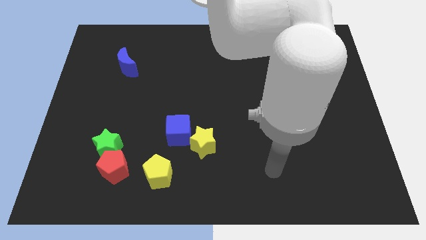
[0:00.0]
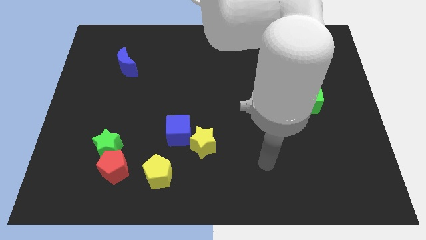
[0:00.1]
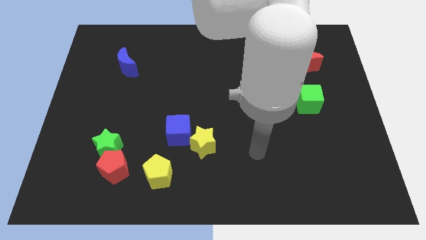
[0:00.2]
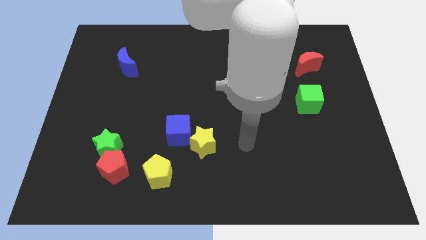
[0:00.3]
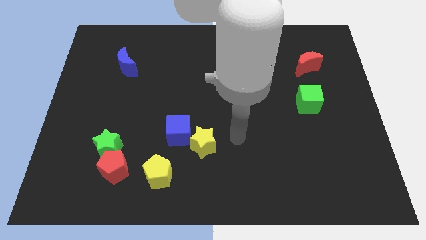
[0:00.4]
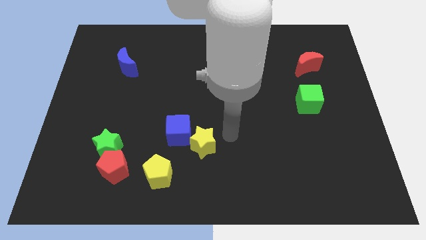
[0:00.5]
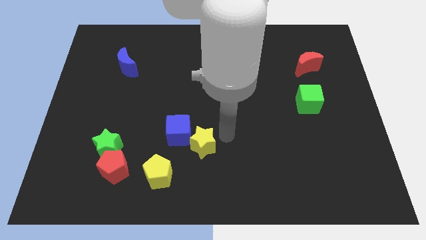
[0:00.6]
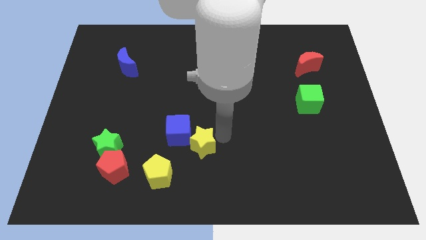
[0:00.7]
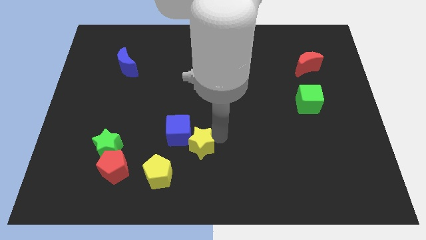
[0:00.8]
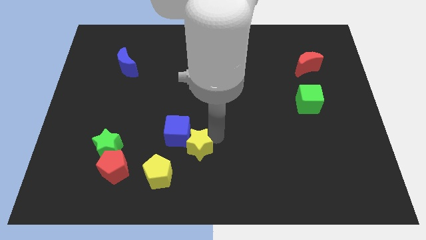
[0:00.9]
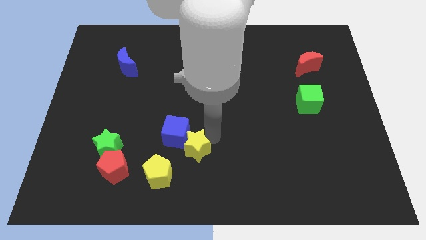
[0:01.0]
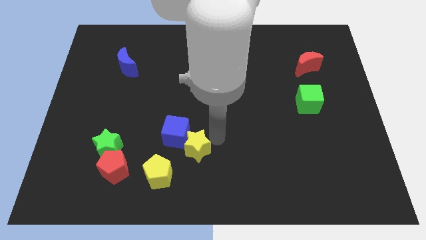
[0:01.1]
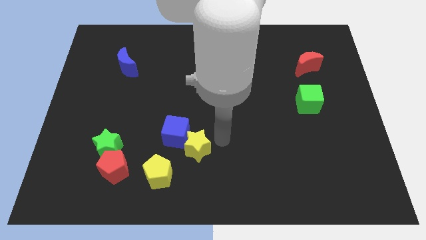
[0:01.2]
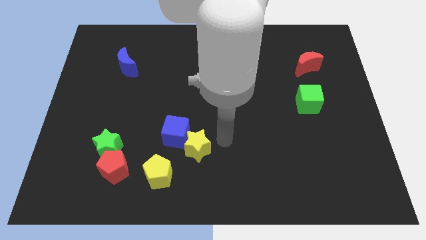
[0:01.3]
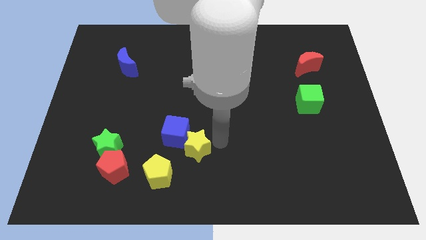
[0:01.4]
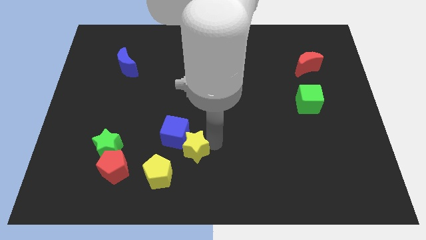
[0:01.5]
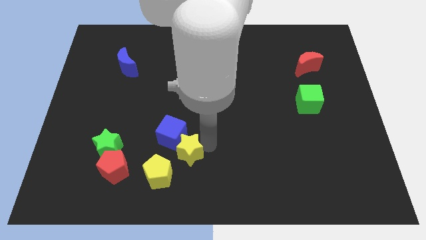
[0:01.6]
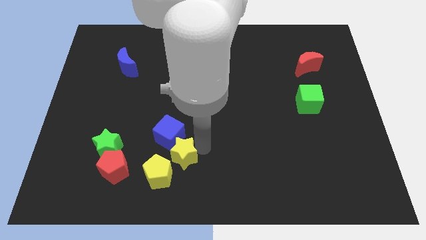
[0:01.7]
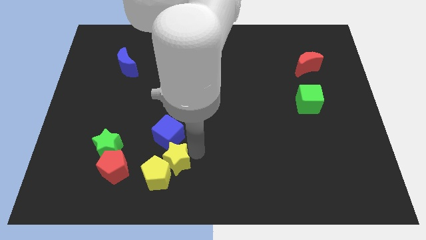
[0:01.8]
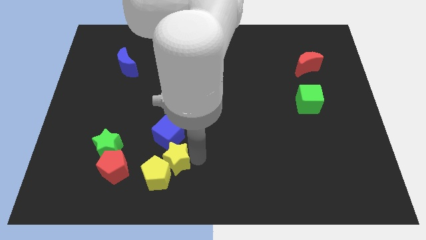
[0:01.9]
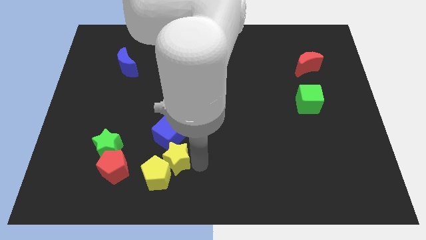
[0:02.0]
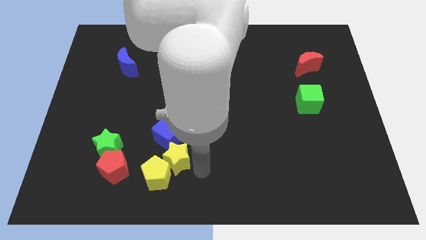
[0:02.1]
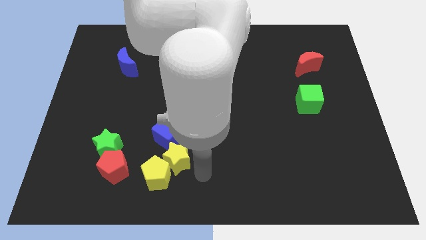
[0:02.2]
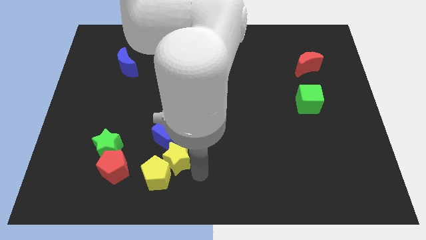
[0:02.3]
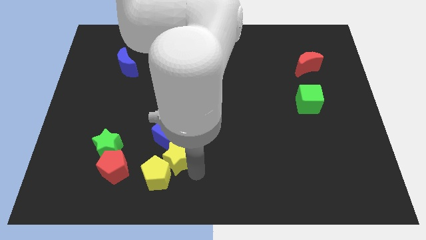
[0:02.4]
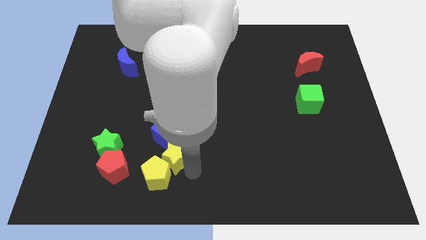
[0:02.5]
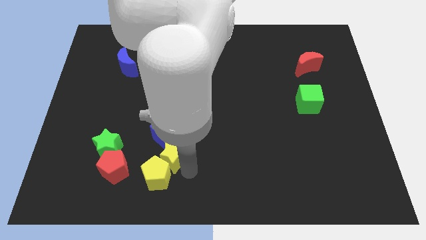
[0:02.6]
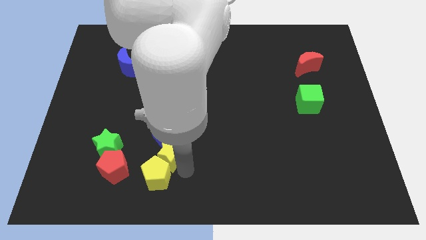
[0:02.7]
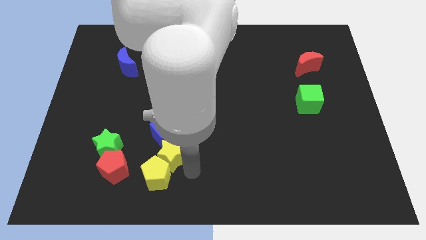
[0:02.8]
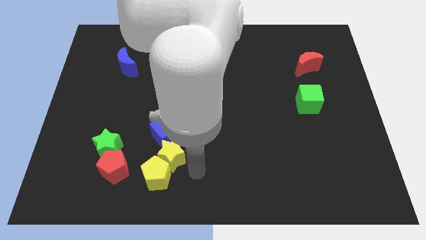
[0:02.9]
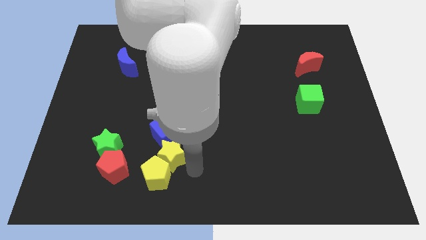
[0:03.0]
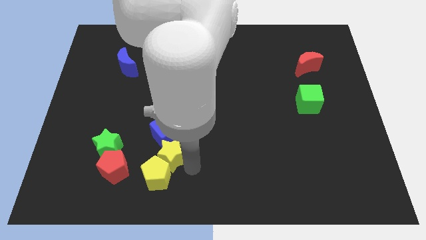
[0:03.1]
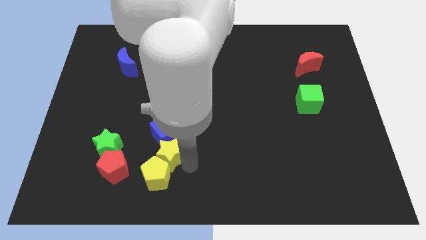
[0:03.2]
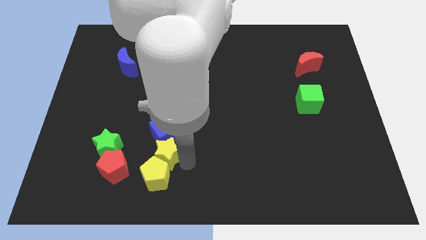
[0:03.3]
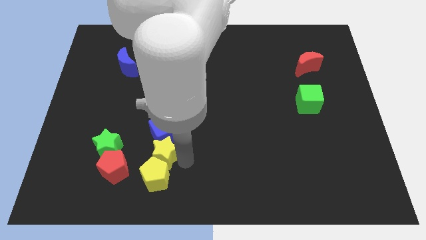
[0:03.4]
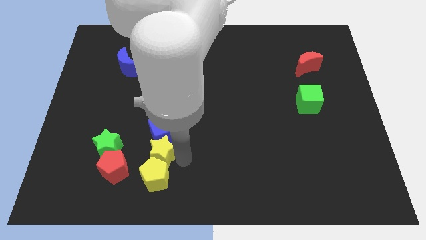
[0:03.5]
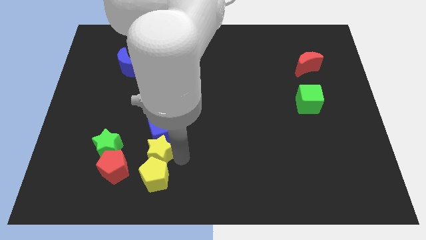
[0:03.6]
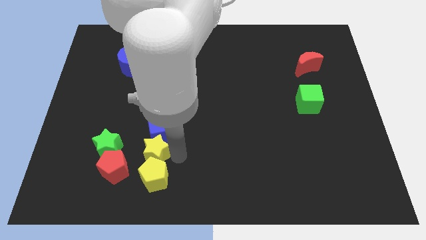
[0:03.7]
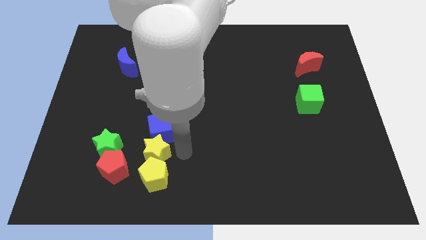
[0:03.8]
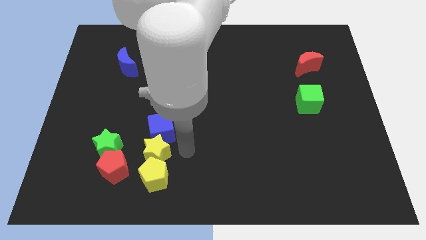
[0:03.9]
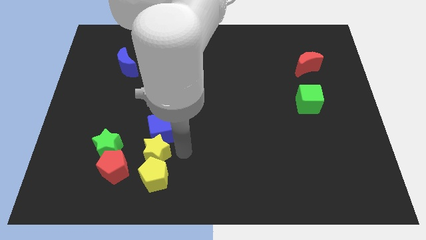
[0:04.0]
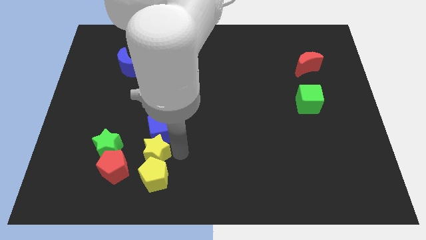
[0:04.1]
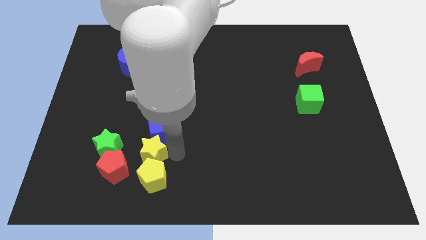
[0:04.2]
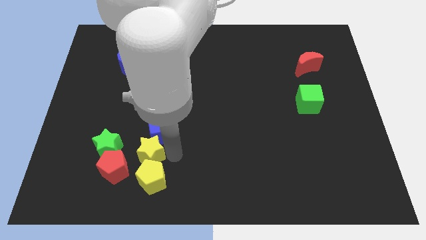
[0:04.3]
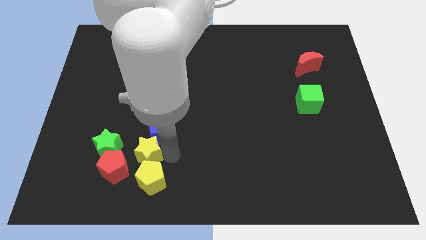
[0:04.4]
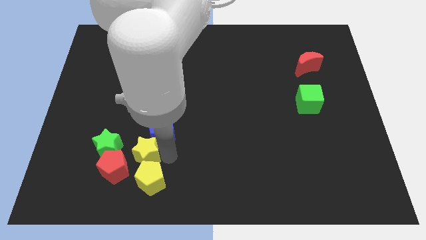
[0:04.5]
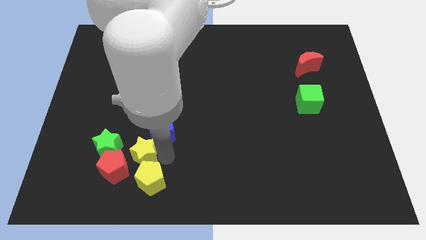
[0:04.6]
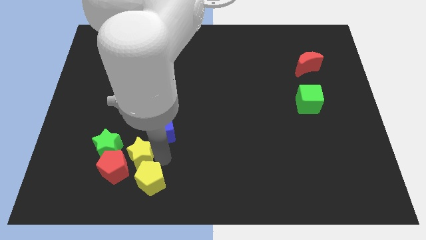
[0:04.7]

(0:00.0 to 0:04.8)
move the yellow star next to the red pentagon

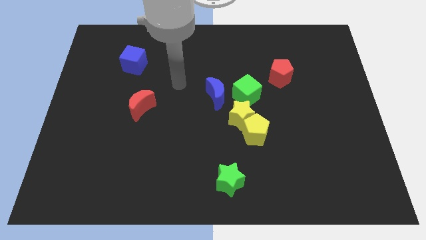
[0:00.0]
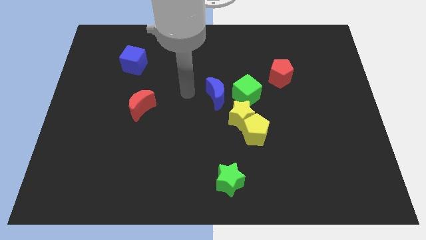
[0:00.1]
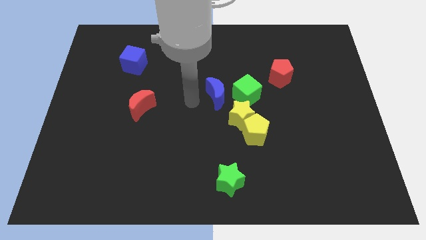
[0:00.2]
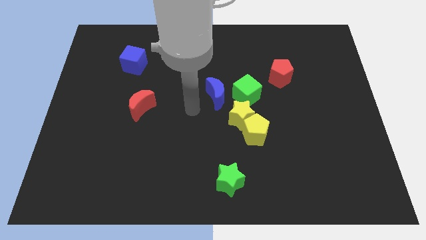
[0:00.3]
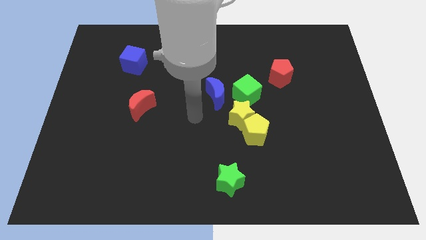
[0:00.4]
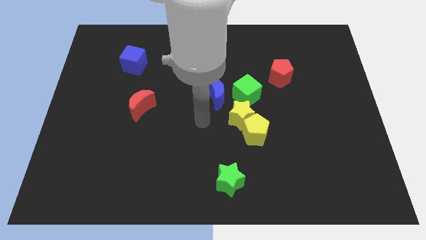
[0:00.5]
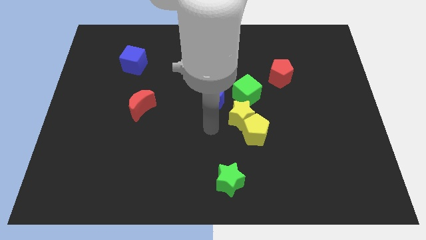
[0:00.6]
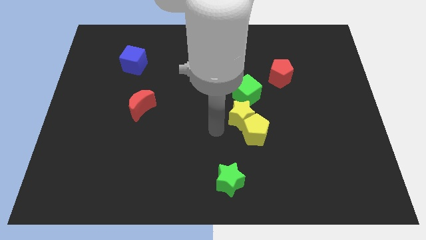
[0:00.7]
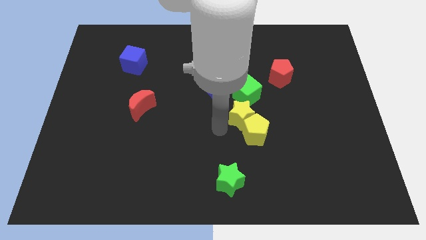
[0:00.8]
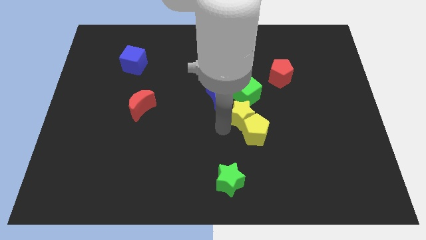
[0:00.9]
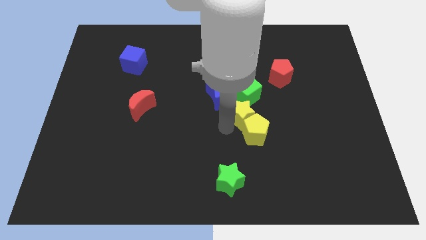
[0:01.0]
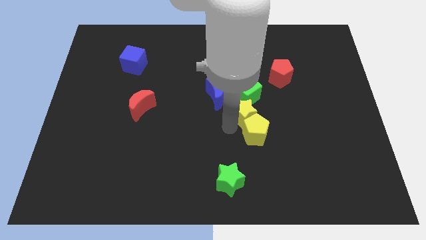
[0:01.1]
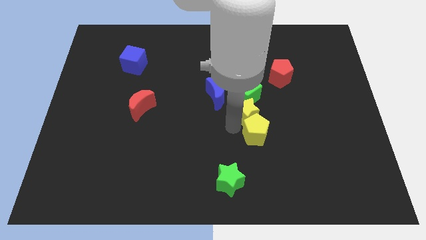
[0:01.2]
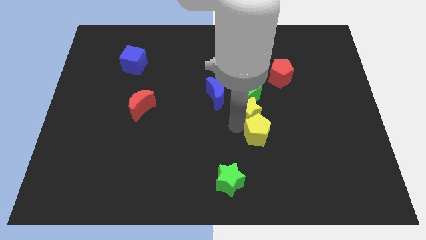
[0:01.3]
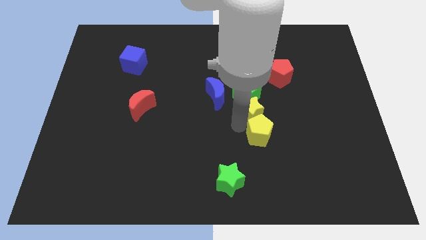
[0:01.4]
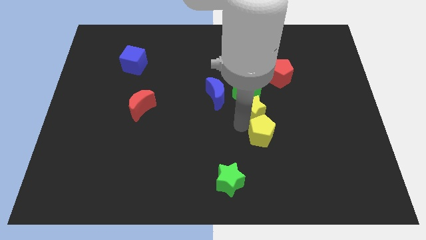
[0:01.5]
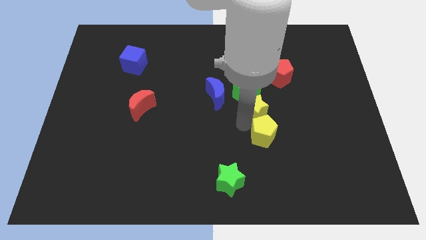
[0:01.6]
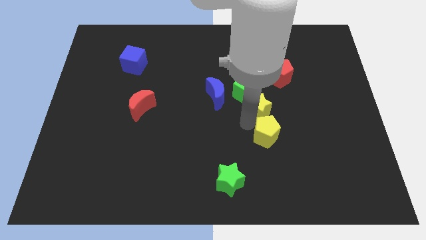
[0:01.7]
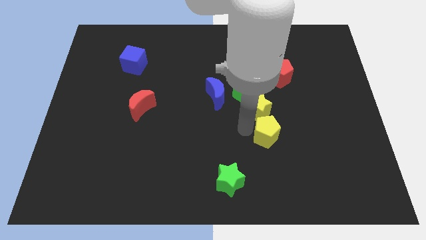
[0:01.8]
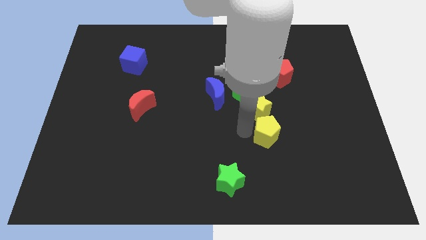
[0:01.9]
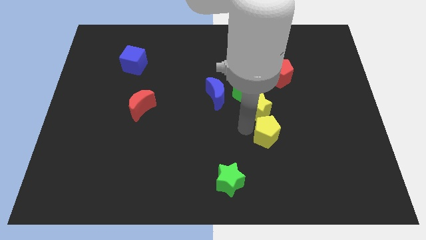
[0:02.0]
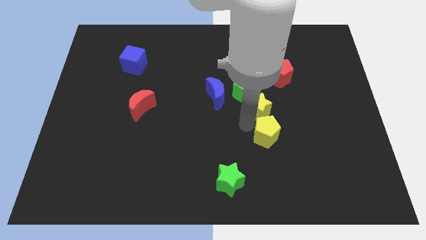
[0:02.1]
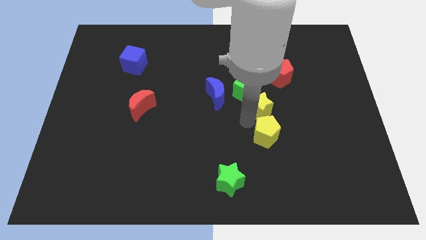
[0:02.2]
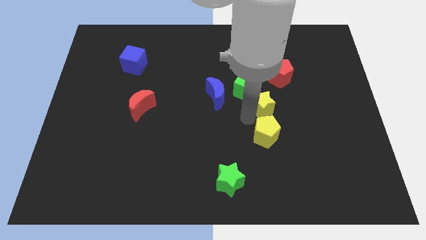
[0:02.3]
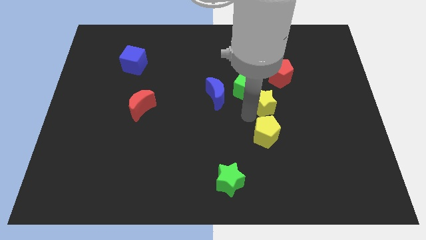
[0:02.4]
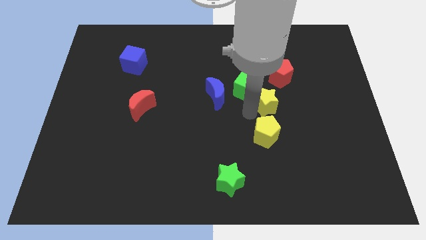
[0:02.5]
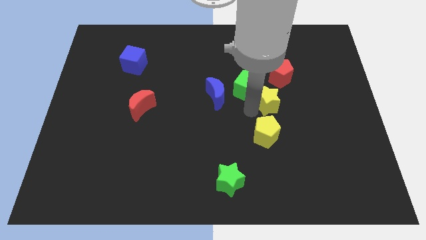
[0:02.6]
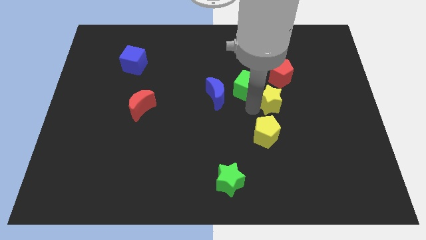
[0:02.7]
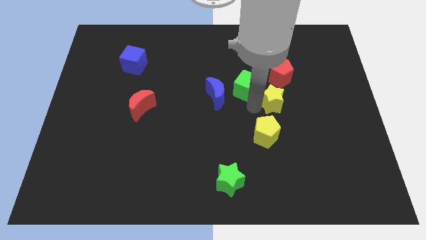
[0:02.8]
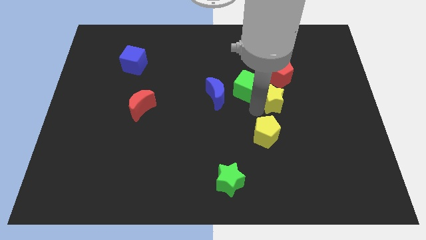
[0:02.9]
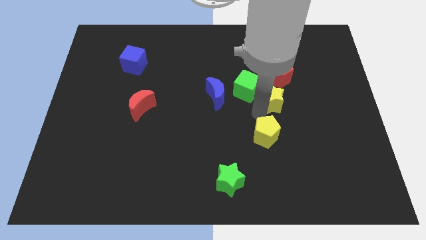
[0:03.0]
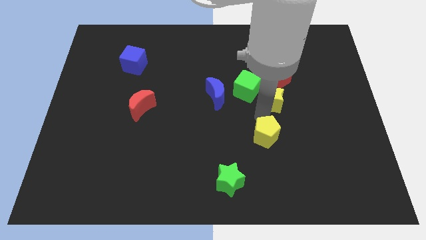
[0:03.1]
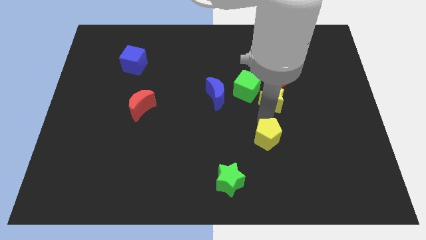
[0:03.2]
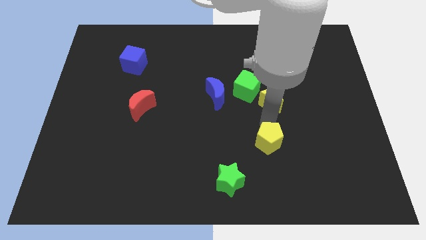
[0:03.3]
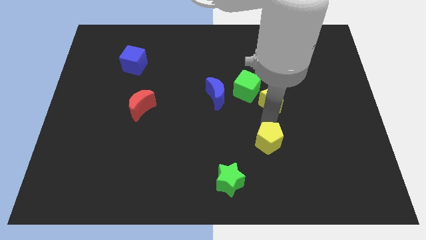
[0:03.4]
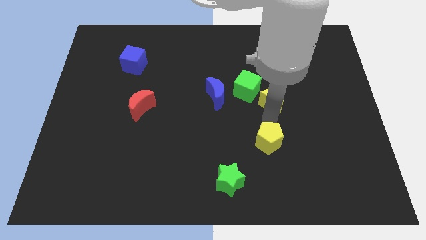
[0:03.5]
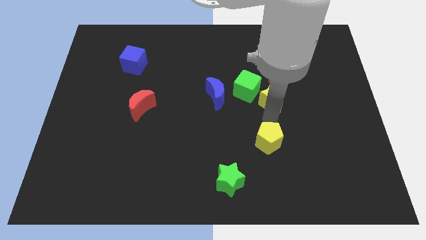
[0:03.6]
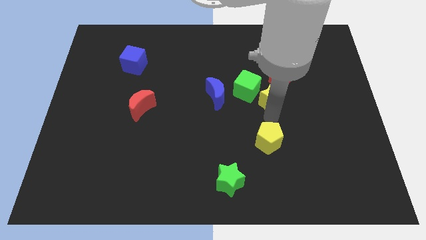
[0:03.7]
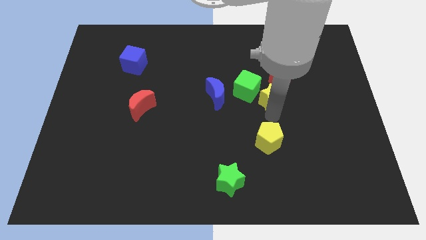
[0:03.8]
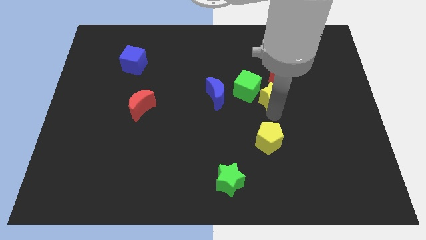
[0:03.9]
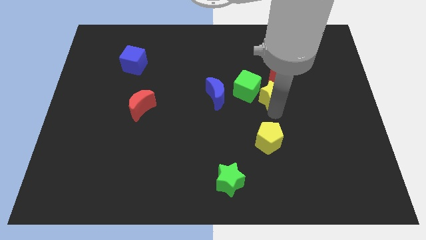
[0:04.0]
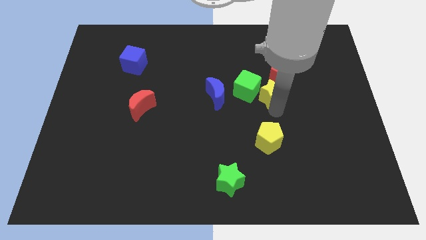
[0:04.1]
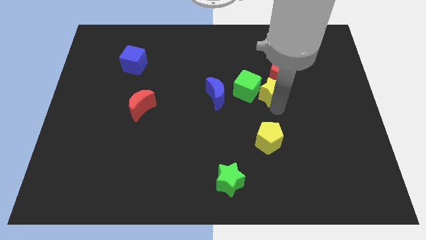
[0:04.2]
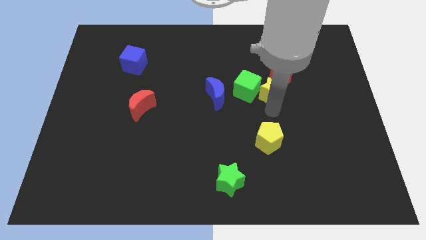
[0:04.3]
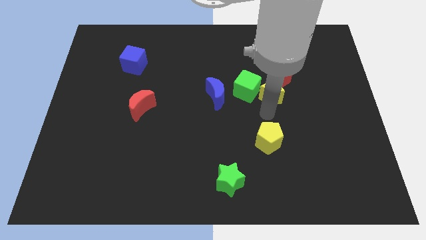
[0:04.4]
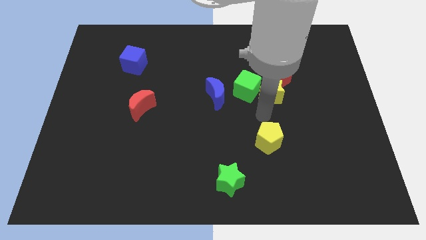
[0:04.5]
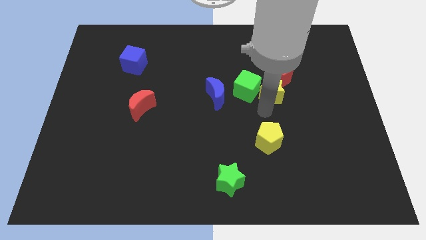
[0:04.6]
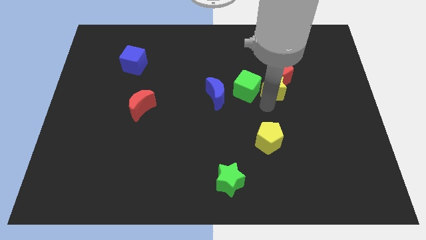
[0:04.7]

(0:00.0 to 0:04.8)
slide the yellow star next to the red pentagon
